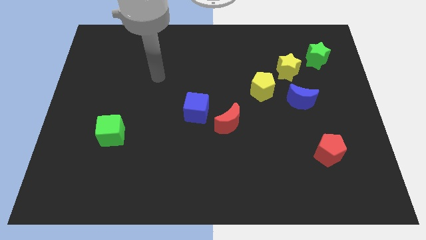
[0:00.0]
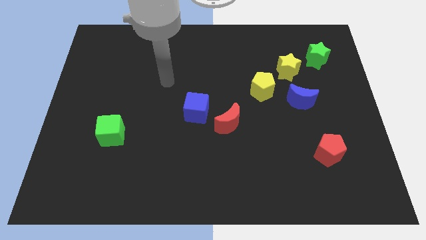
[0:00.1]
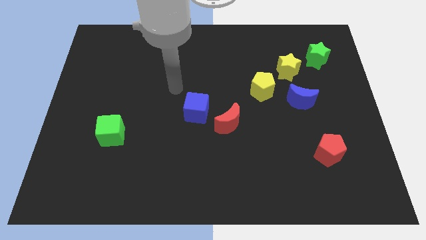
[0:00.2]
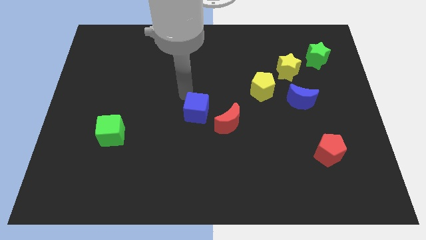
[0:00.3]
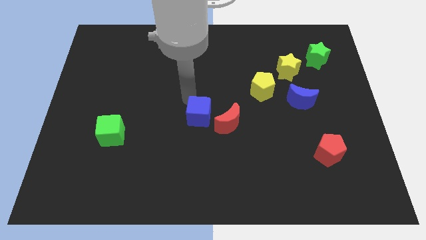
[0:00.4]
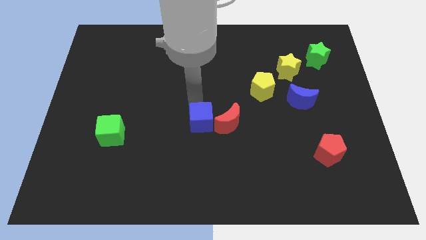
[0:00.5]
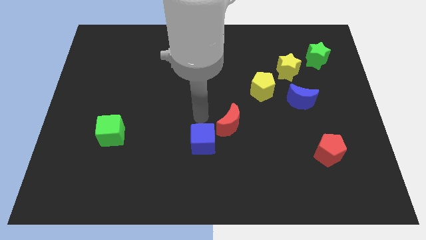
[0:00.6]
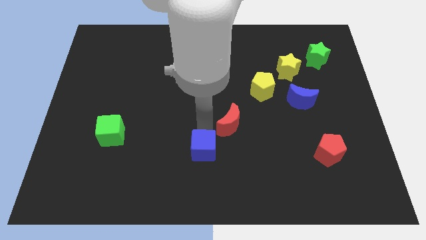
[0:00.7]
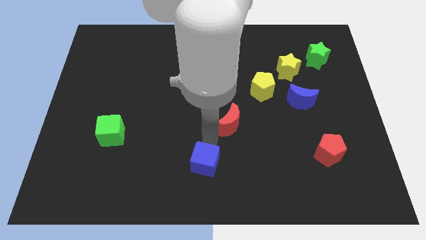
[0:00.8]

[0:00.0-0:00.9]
separate the red moon from the blue cube

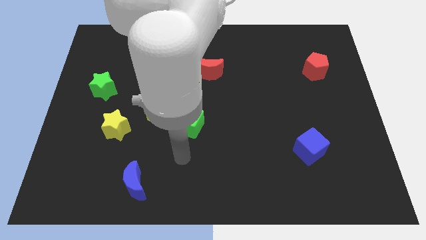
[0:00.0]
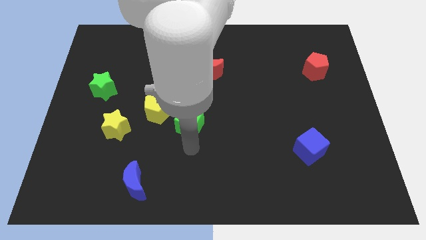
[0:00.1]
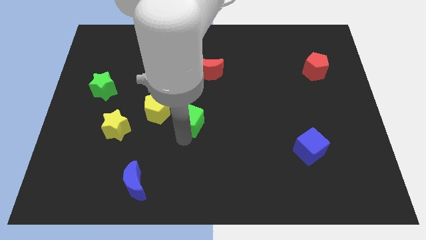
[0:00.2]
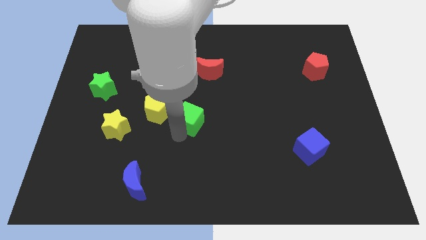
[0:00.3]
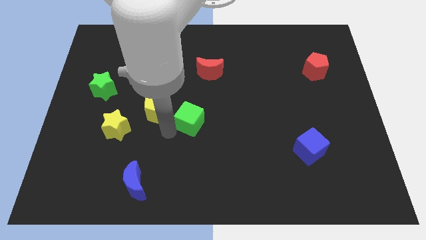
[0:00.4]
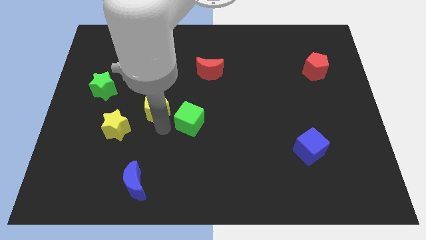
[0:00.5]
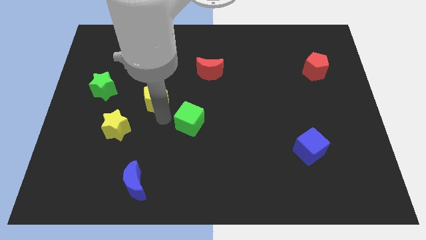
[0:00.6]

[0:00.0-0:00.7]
move the green cube away from the yellow pentagon

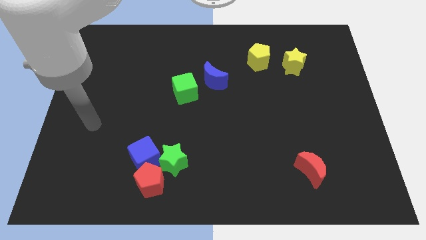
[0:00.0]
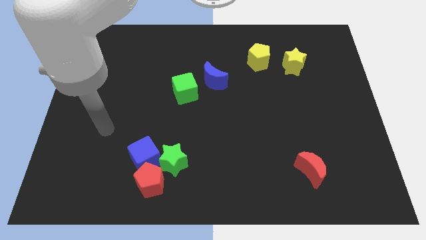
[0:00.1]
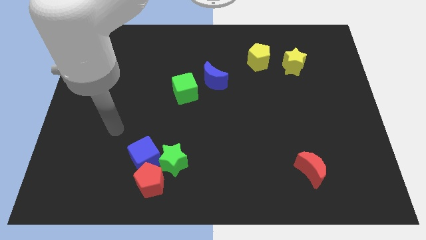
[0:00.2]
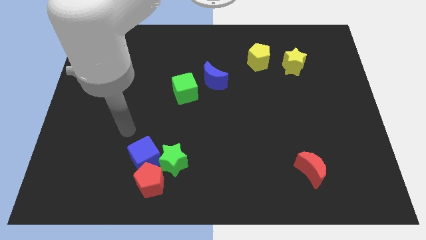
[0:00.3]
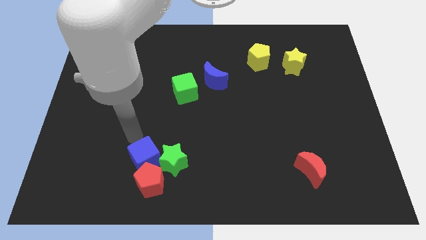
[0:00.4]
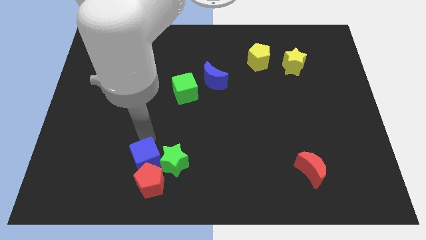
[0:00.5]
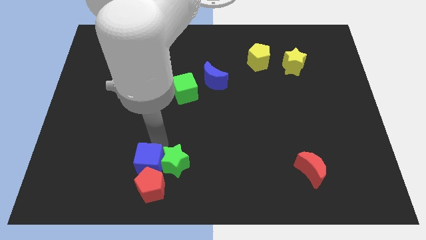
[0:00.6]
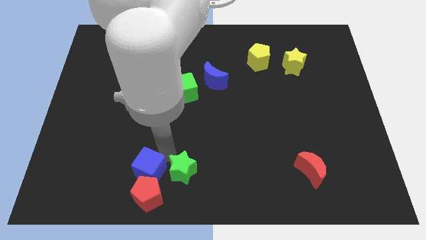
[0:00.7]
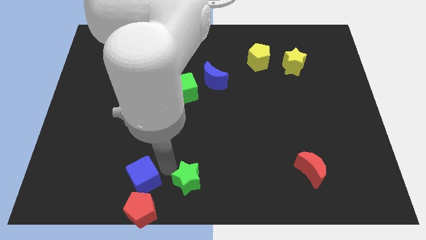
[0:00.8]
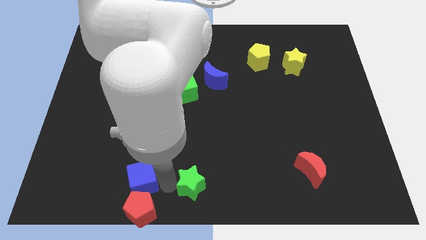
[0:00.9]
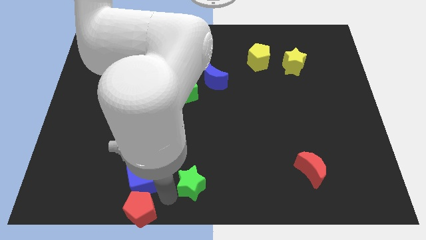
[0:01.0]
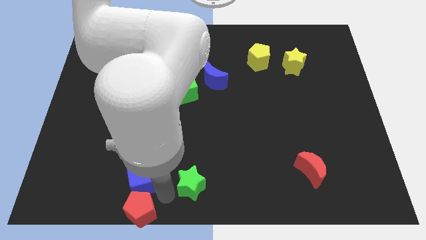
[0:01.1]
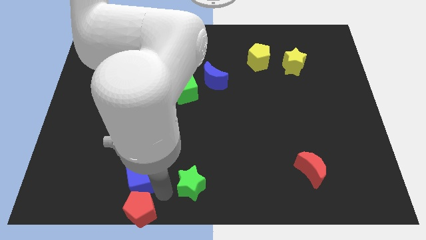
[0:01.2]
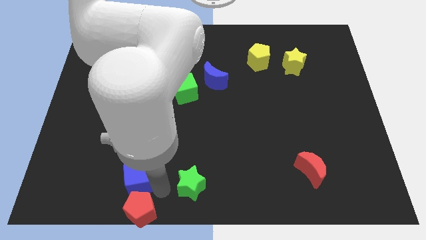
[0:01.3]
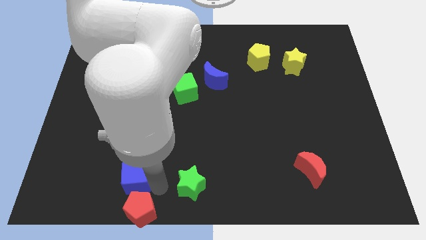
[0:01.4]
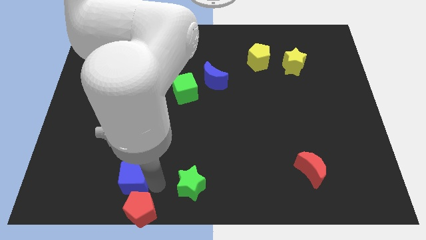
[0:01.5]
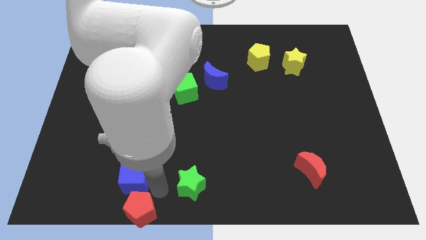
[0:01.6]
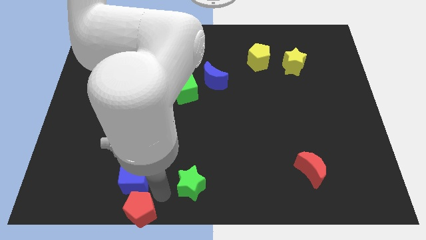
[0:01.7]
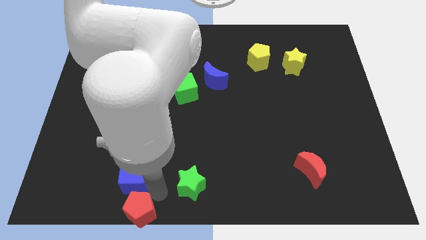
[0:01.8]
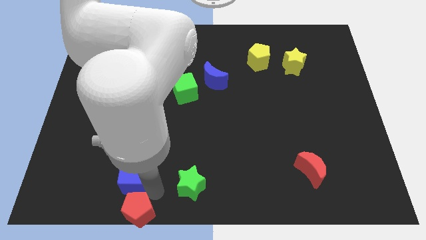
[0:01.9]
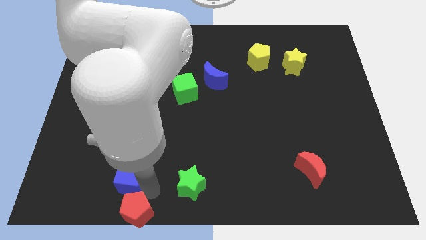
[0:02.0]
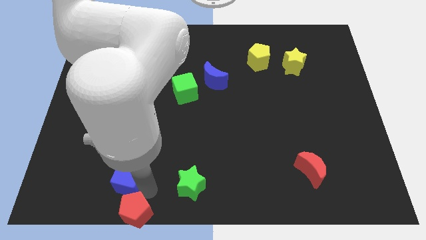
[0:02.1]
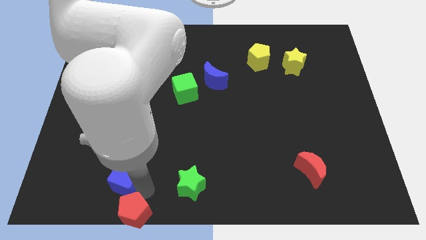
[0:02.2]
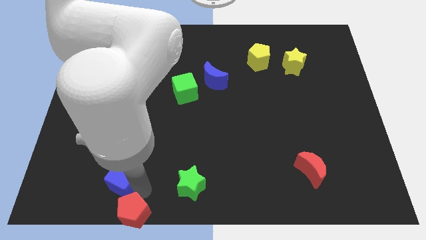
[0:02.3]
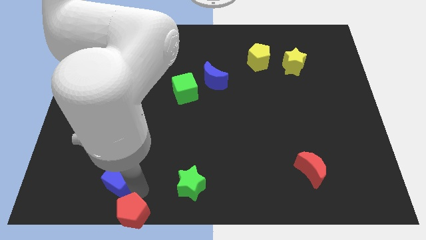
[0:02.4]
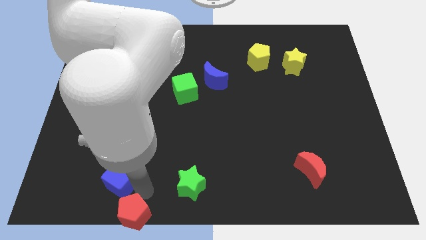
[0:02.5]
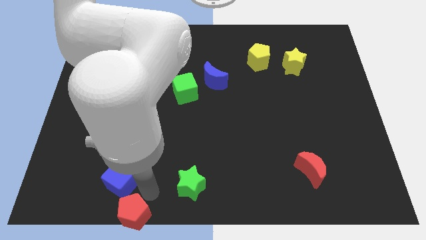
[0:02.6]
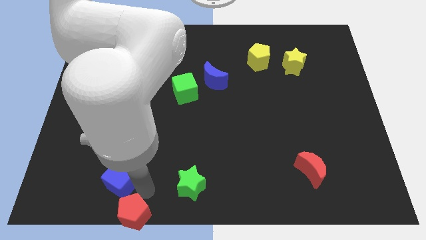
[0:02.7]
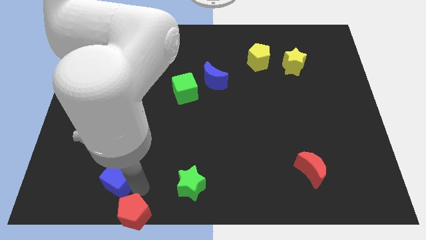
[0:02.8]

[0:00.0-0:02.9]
pull the blue cube apart from the red pentagon and green star

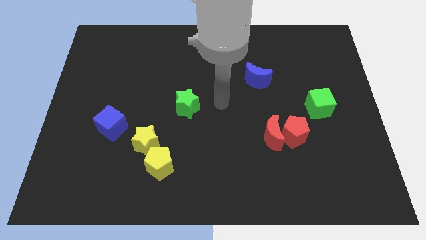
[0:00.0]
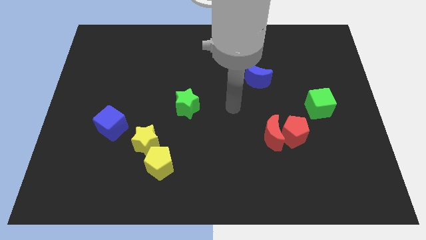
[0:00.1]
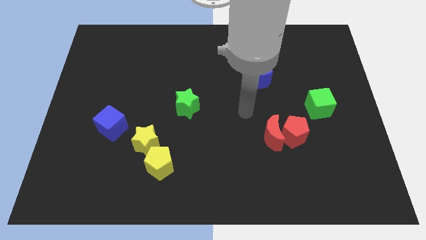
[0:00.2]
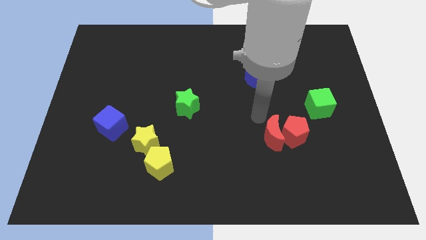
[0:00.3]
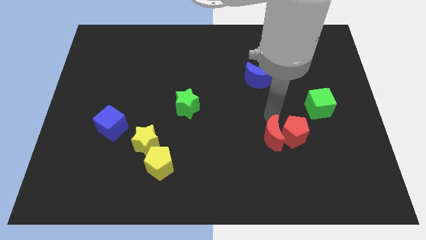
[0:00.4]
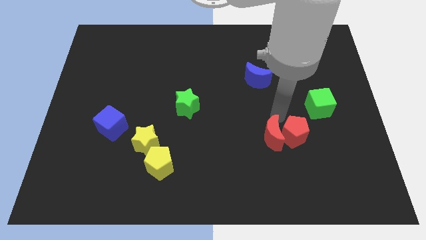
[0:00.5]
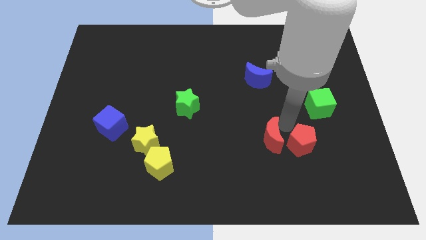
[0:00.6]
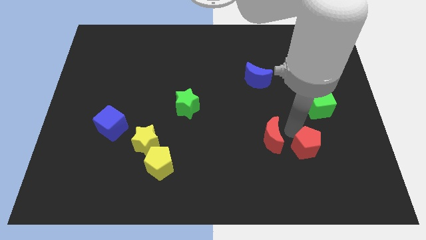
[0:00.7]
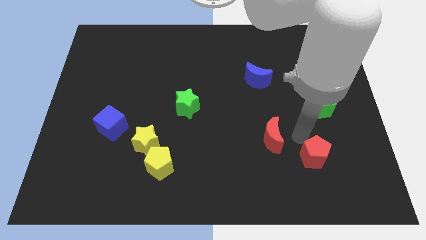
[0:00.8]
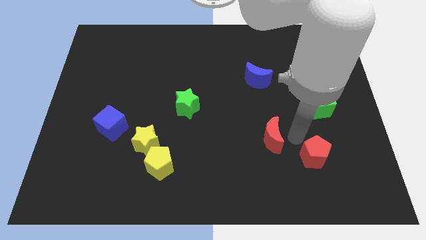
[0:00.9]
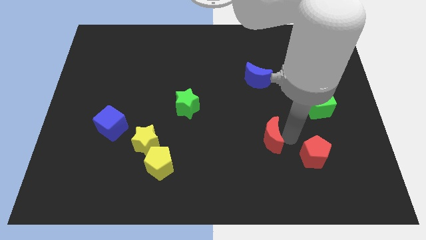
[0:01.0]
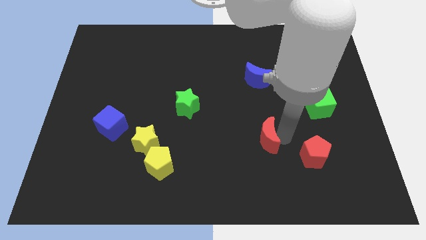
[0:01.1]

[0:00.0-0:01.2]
separate the red moon from the red pentagon

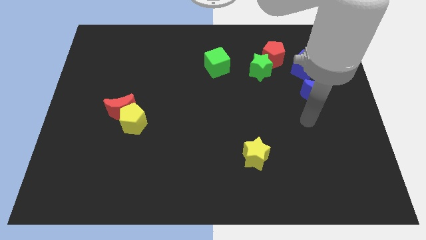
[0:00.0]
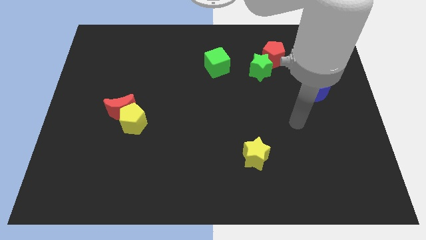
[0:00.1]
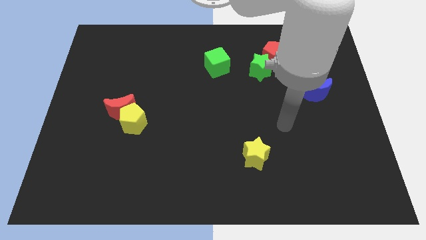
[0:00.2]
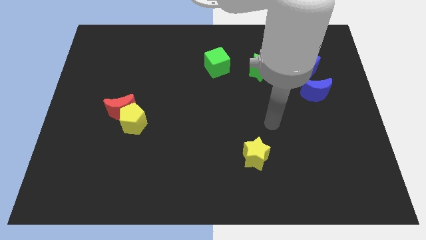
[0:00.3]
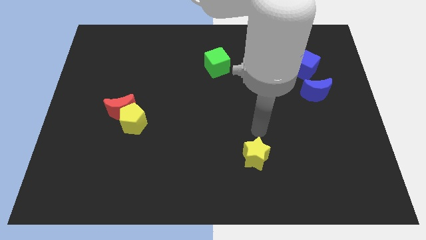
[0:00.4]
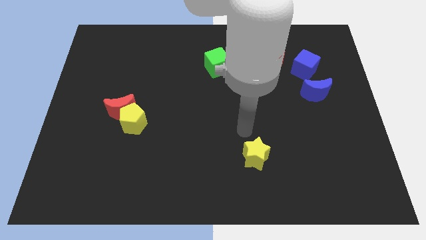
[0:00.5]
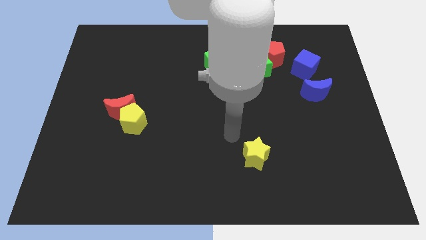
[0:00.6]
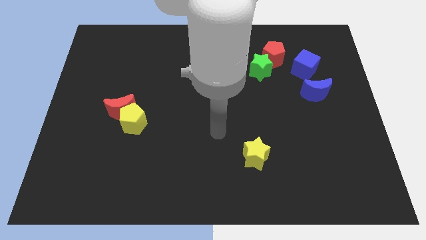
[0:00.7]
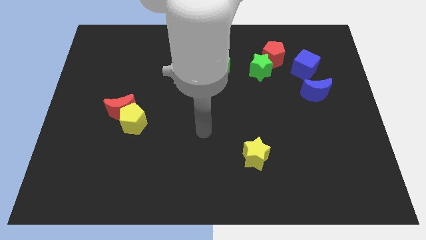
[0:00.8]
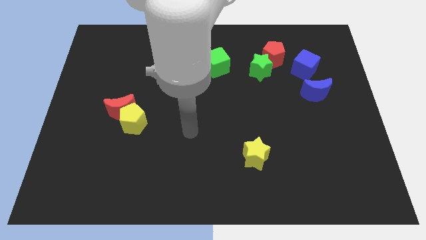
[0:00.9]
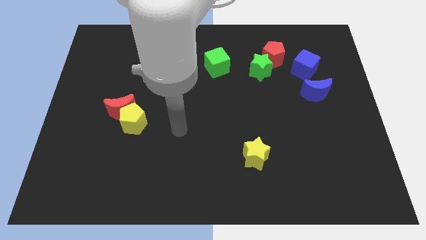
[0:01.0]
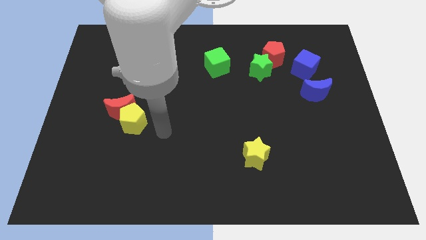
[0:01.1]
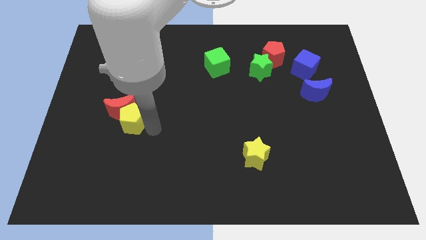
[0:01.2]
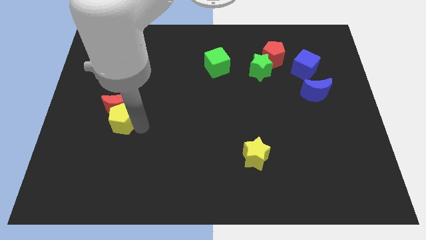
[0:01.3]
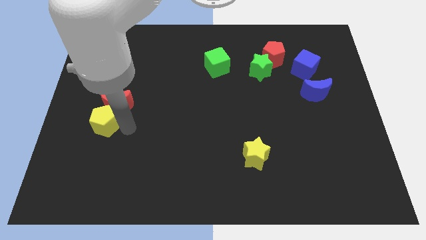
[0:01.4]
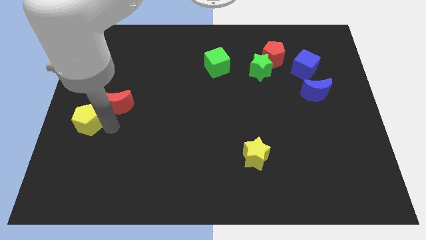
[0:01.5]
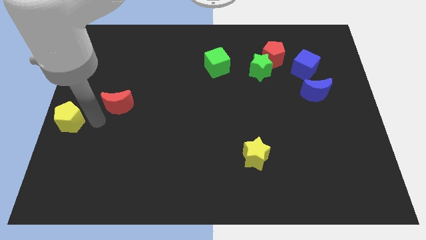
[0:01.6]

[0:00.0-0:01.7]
pull the red moon apart from the yellow pentagon

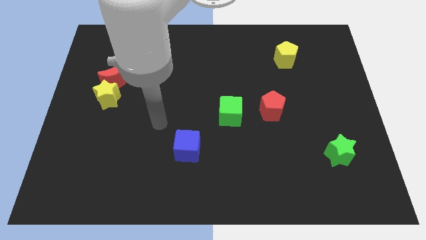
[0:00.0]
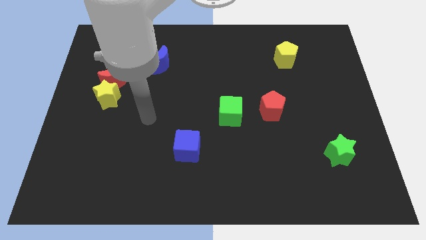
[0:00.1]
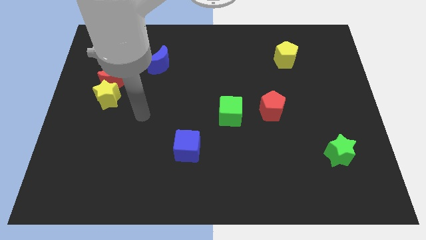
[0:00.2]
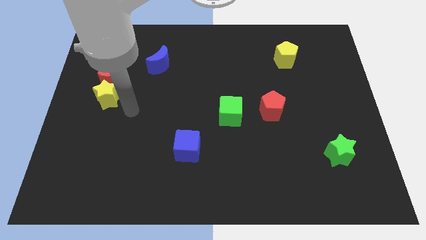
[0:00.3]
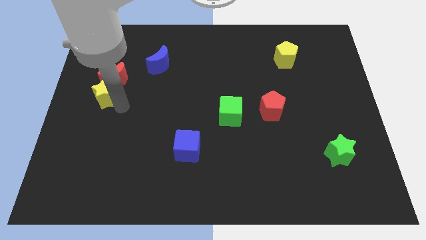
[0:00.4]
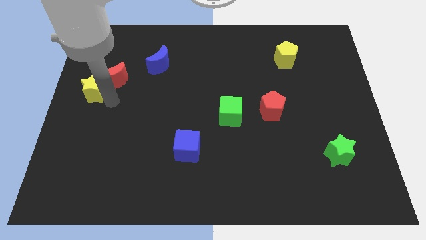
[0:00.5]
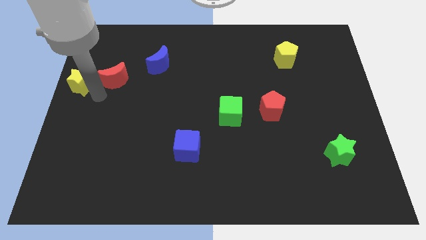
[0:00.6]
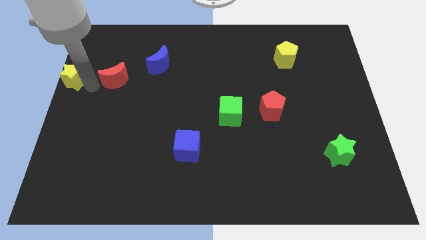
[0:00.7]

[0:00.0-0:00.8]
pull the red moon apart from the yellow star

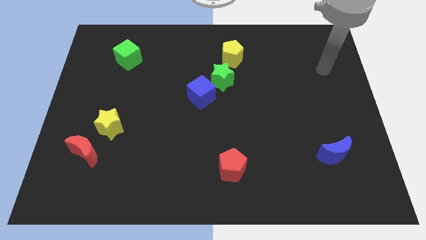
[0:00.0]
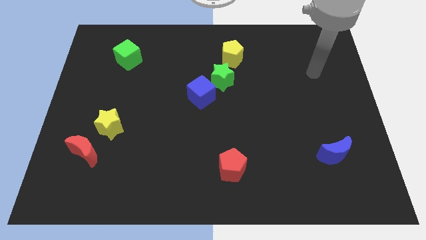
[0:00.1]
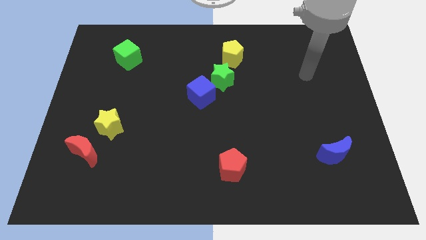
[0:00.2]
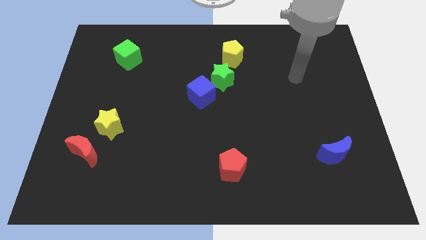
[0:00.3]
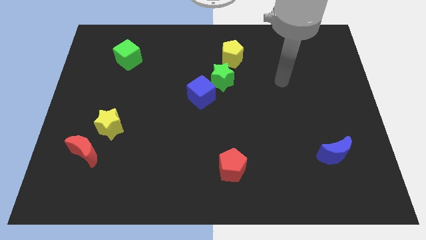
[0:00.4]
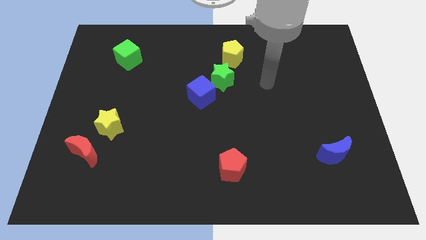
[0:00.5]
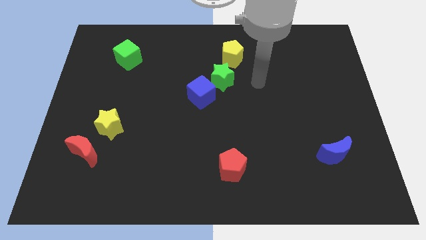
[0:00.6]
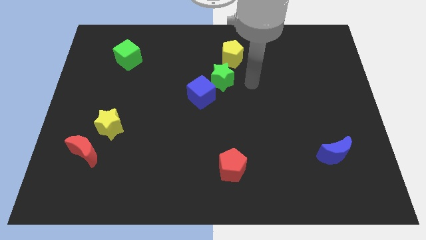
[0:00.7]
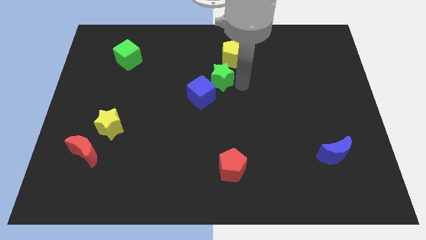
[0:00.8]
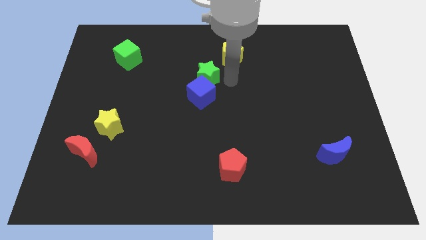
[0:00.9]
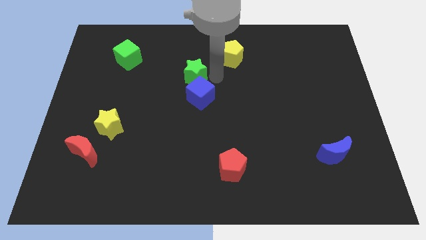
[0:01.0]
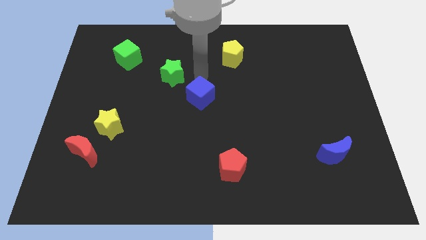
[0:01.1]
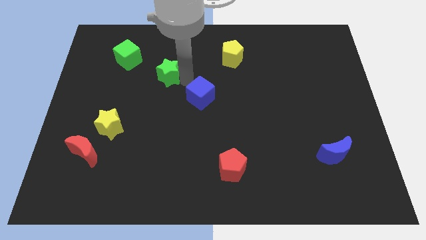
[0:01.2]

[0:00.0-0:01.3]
move the blue cube away from the green star
